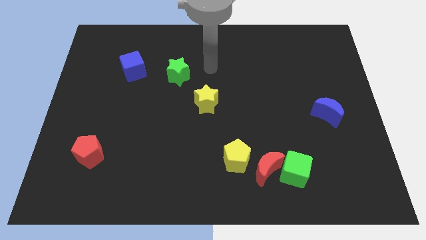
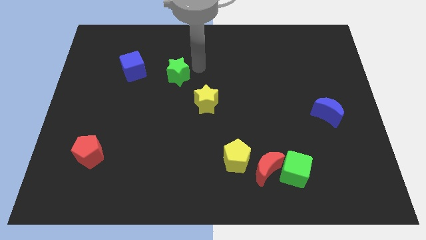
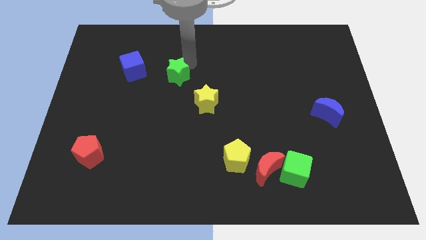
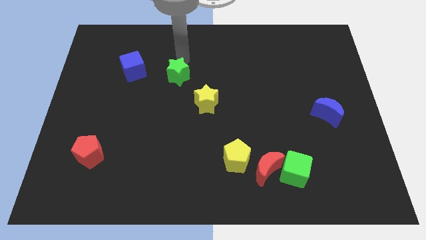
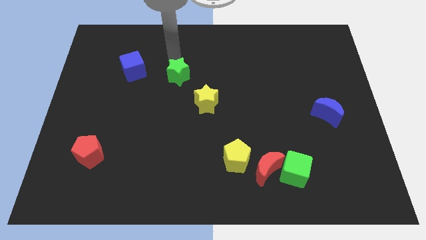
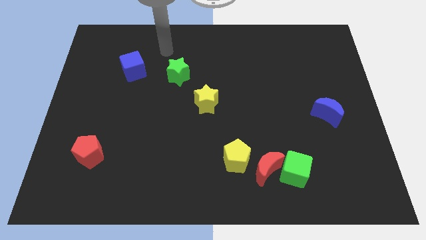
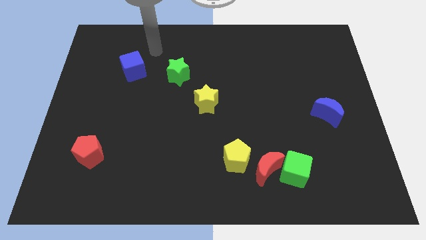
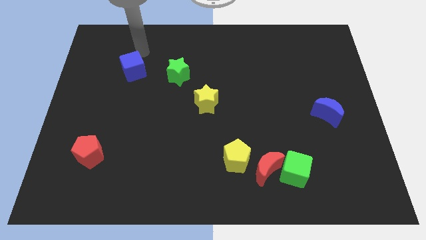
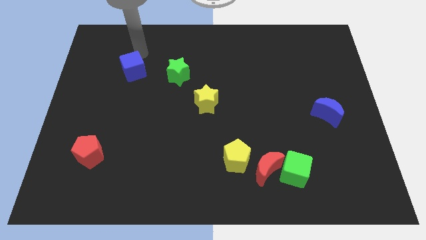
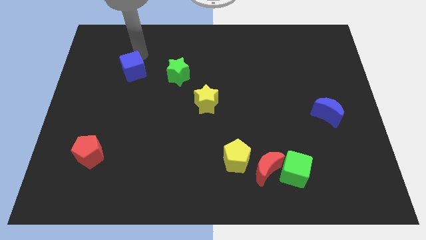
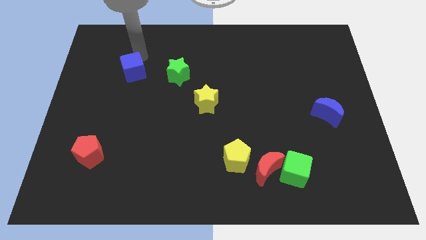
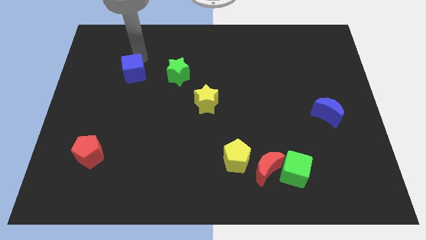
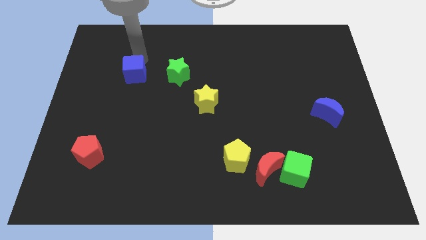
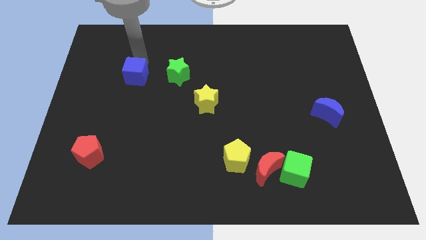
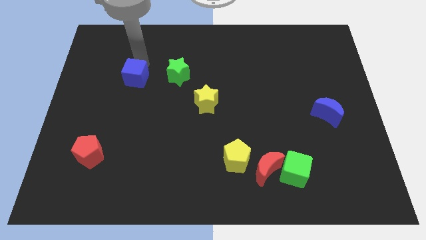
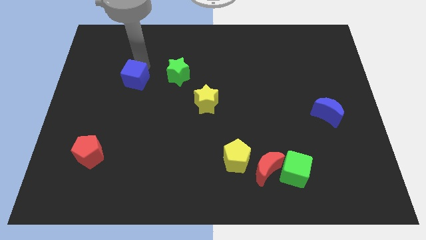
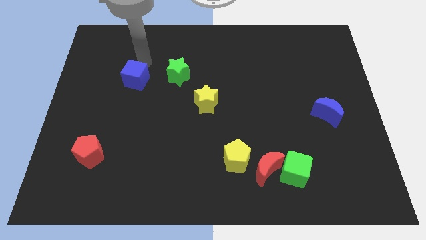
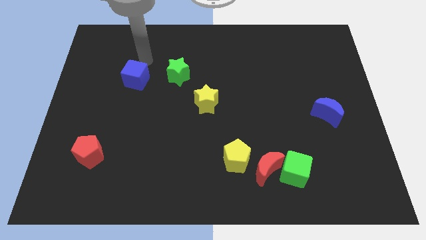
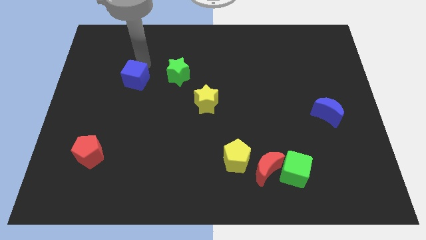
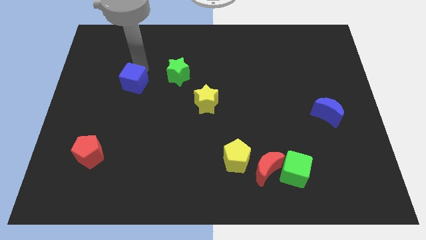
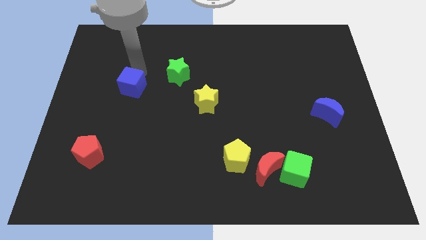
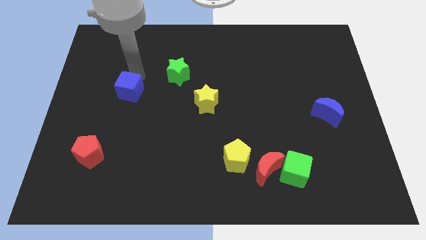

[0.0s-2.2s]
slightly slide the blue cube downwards

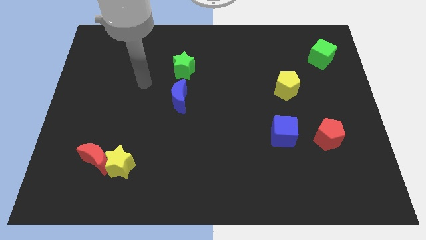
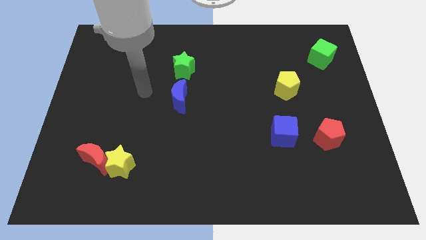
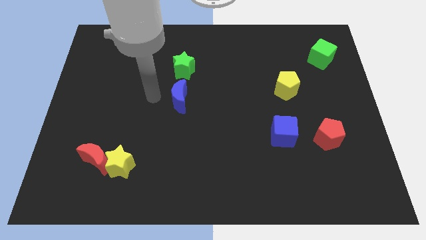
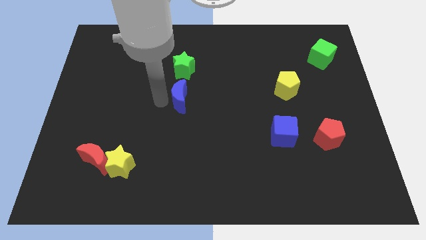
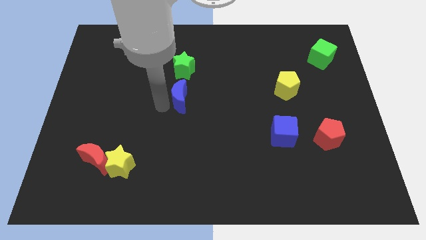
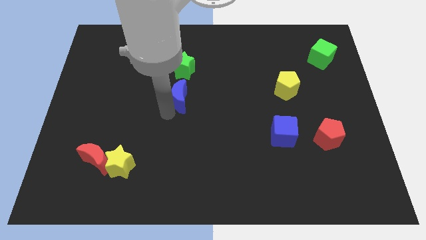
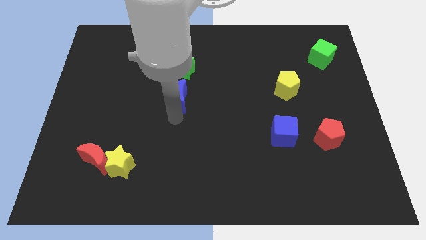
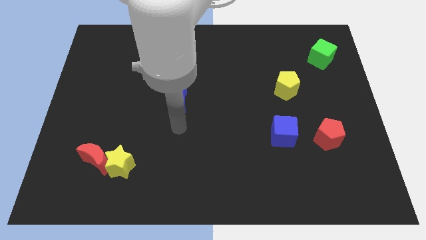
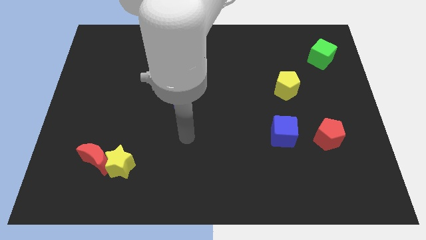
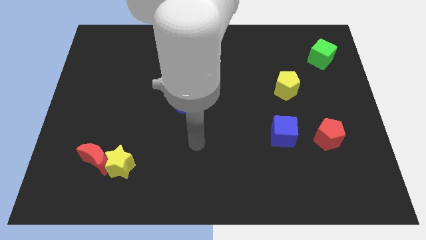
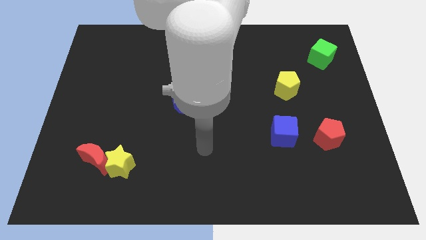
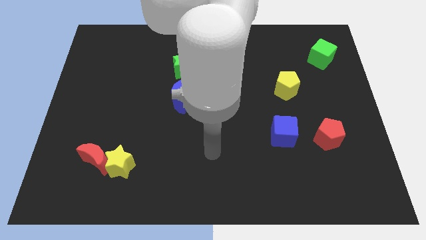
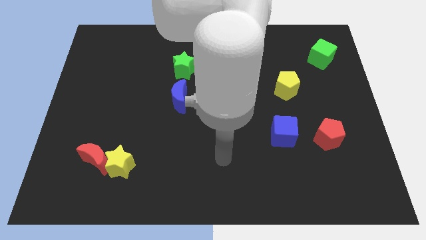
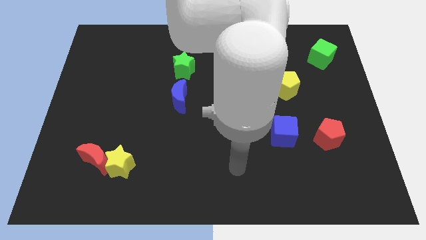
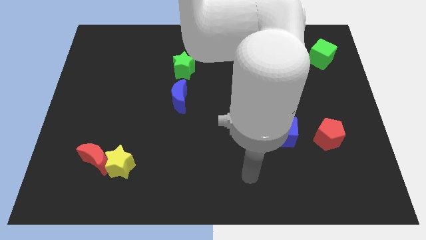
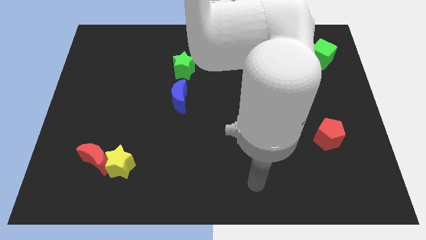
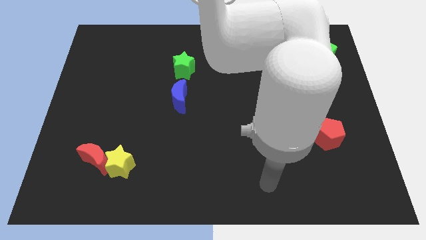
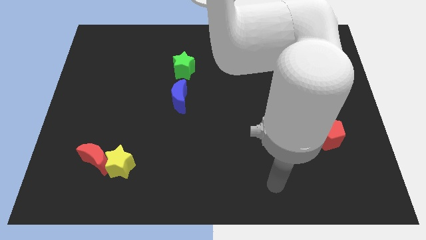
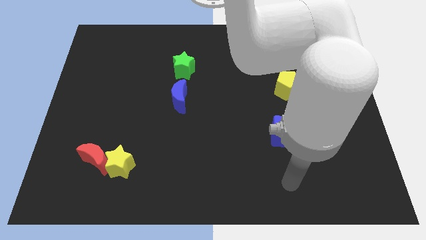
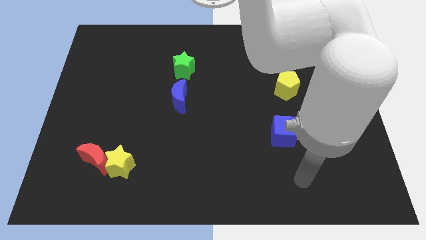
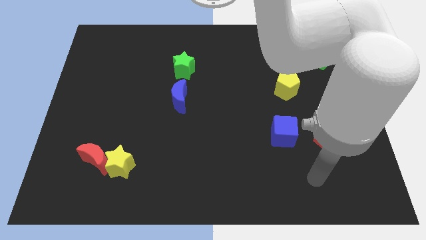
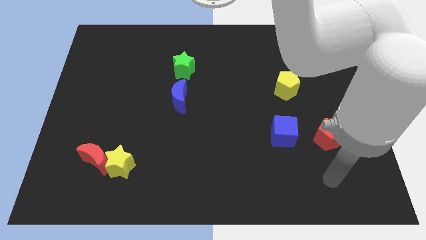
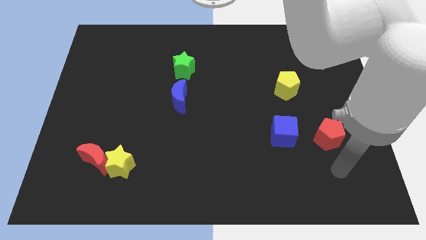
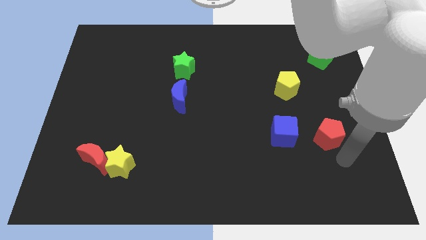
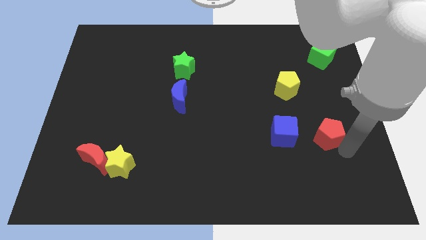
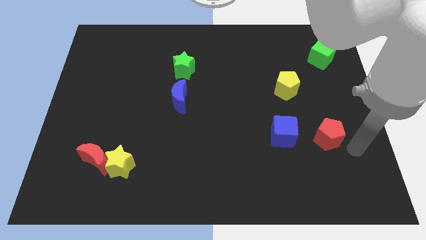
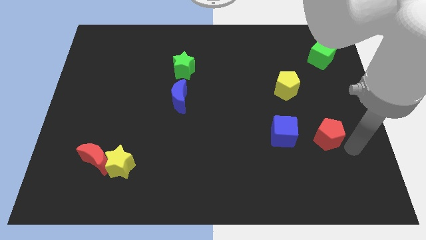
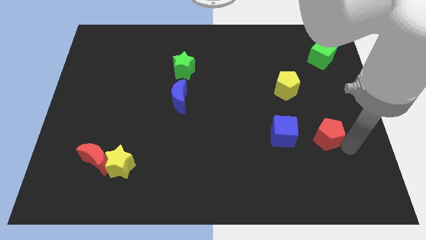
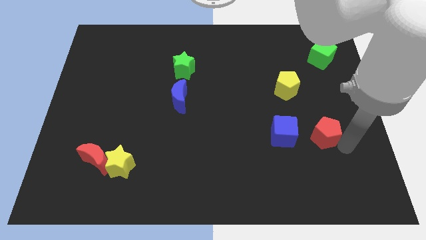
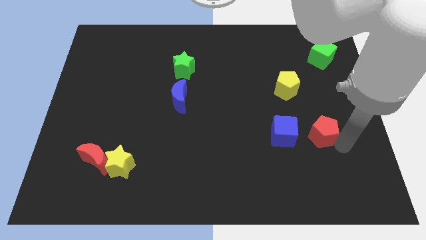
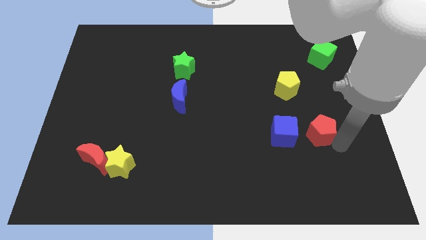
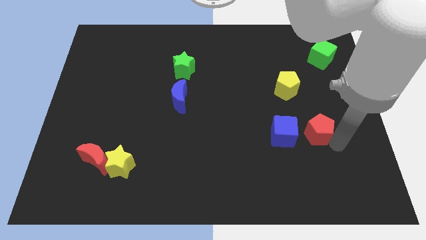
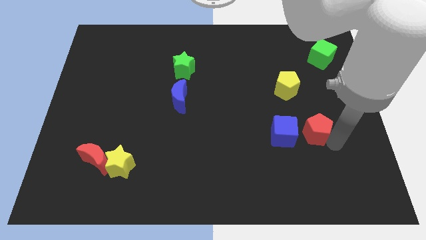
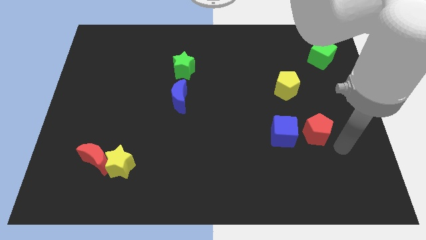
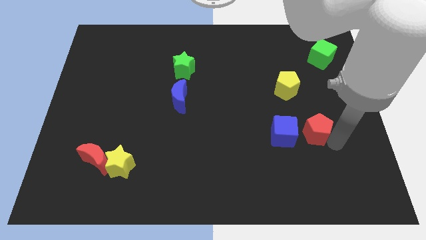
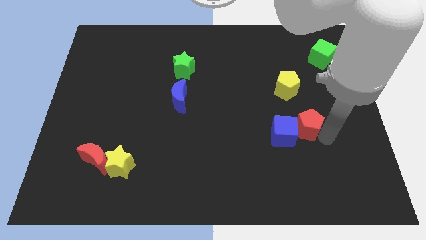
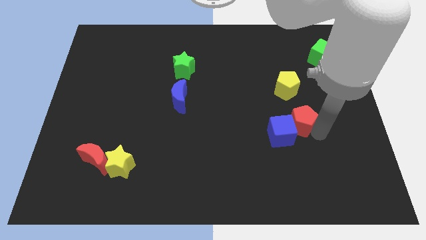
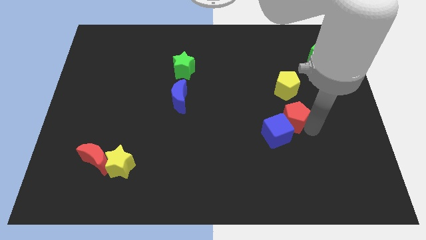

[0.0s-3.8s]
move the red pentagon diagonally up and to the left a little bit

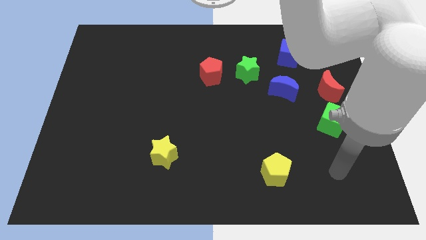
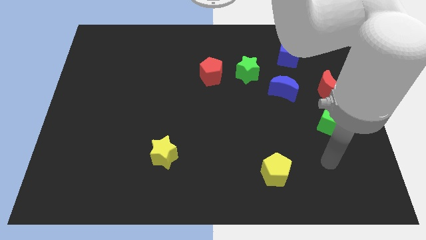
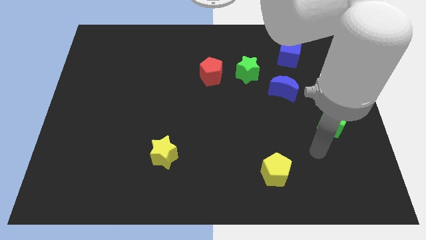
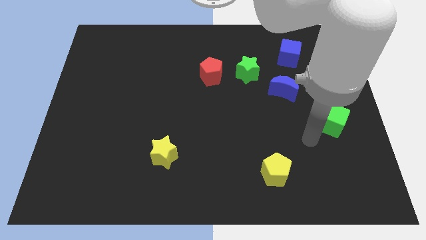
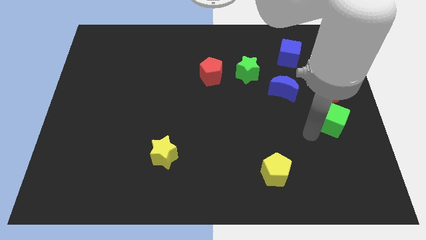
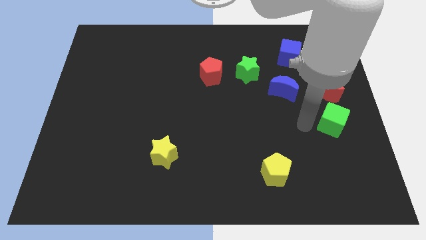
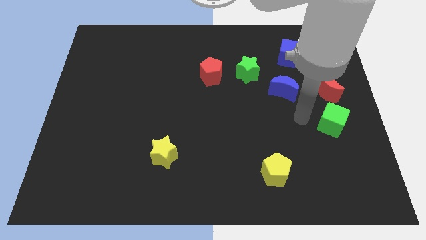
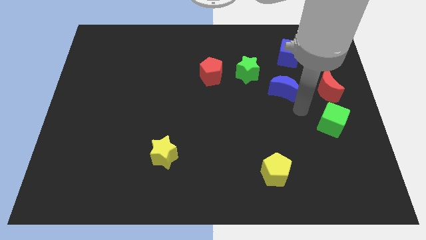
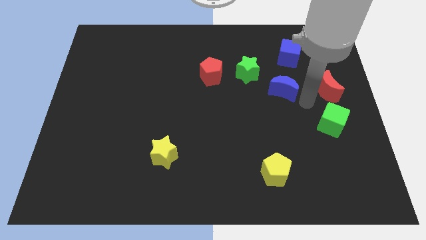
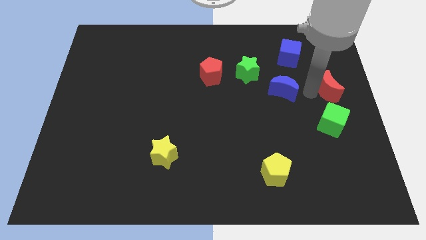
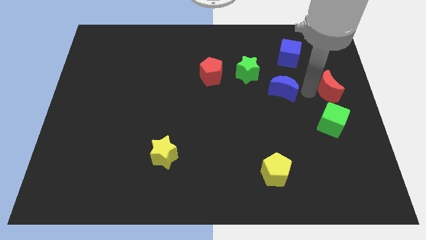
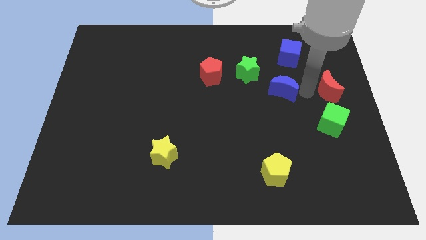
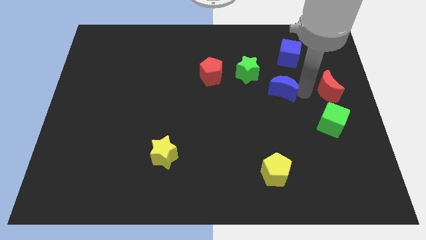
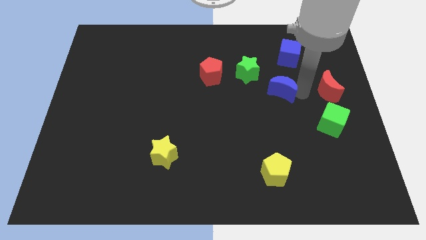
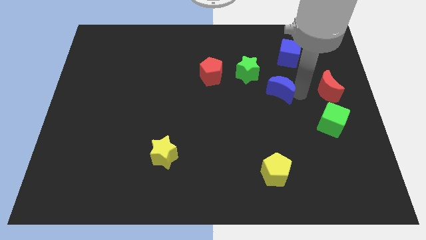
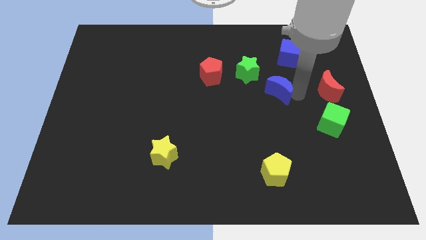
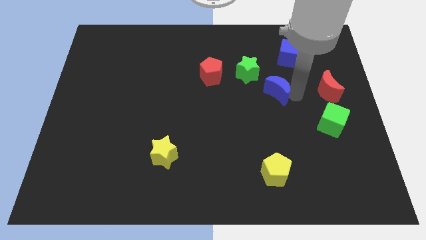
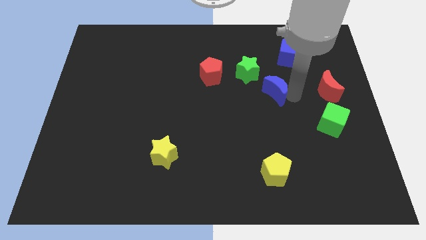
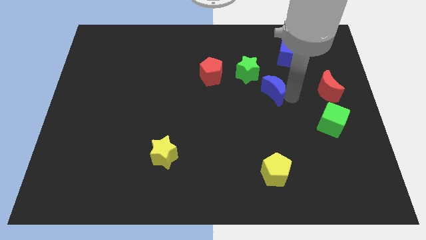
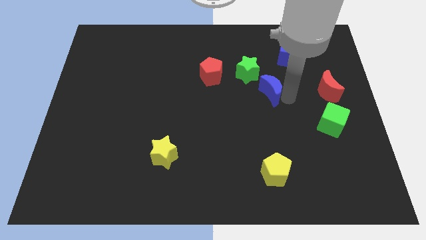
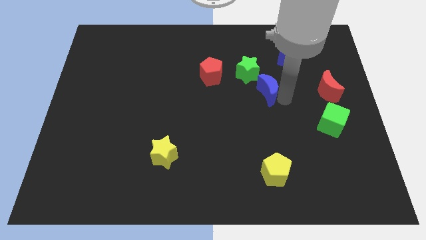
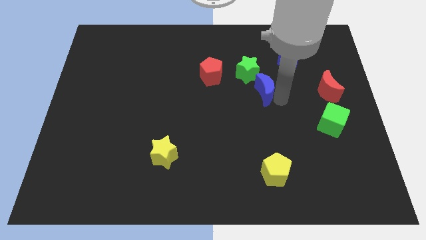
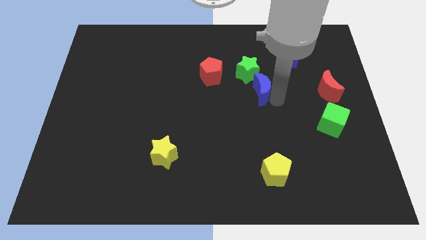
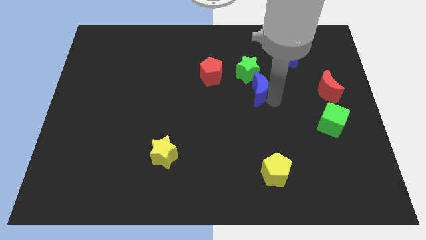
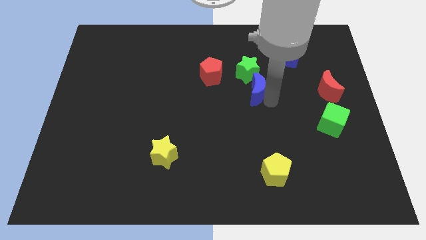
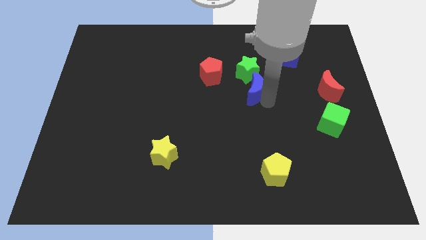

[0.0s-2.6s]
slide the blue moon a little bit to the left

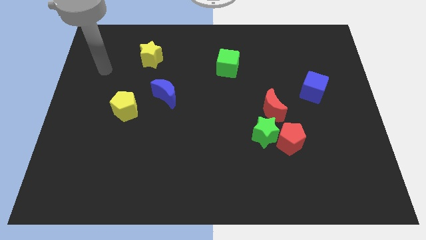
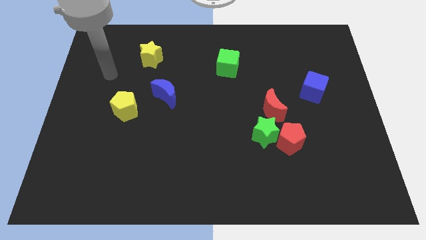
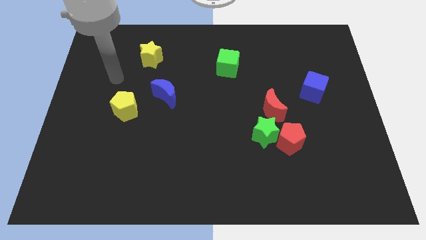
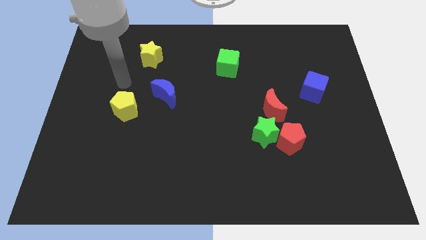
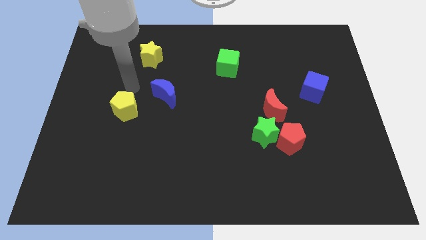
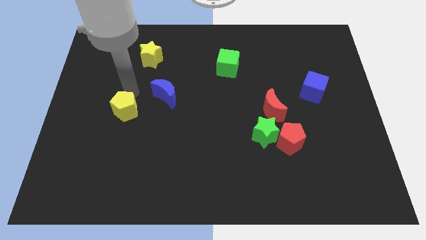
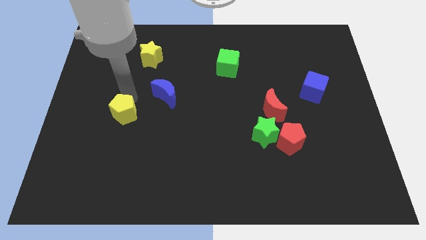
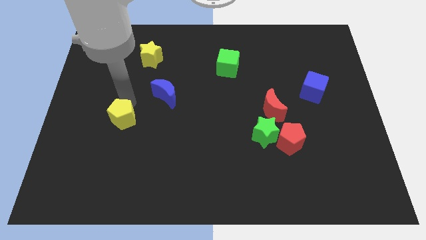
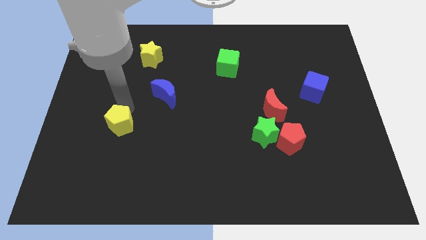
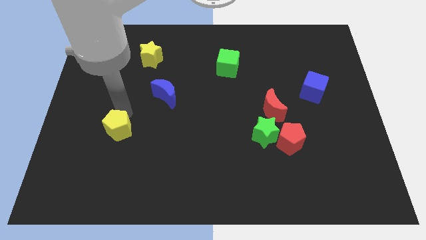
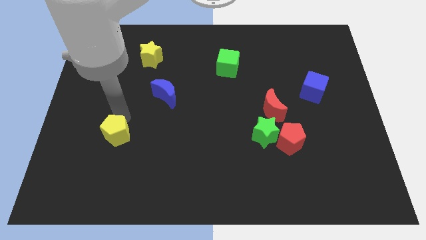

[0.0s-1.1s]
slide the yellow pentagon somewhat down
